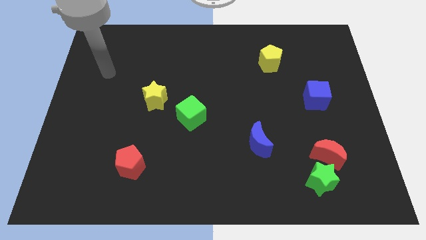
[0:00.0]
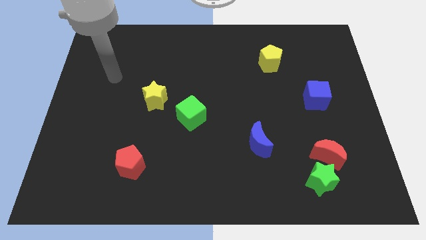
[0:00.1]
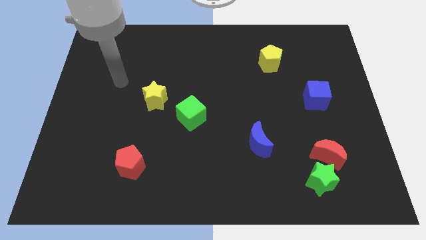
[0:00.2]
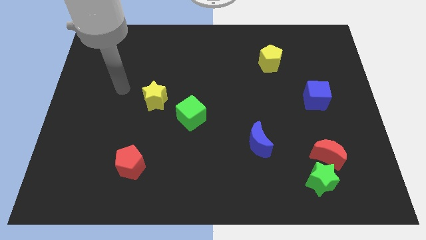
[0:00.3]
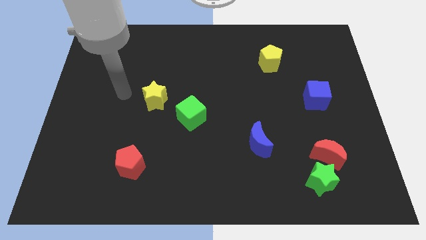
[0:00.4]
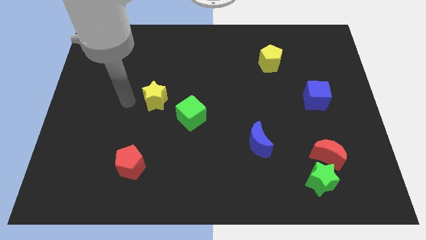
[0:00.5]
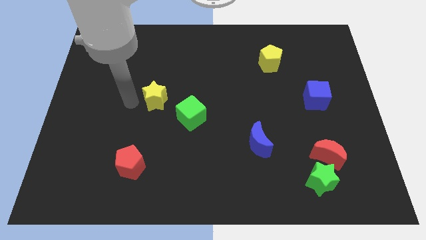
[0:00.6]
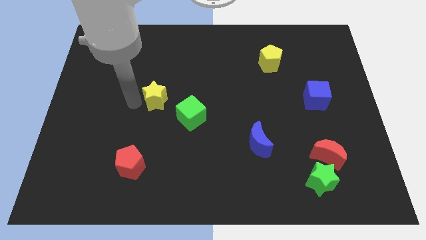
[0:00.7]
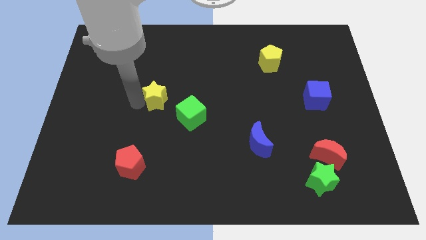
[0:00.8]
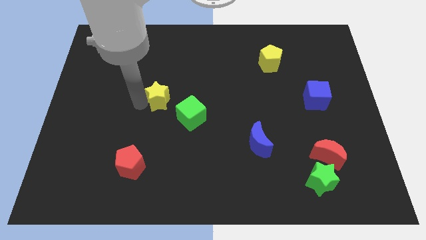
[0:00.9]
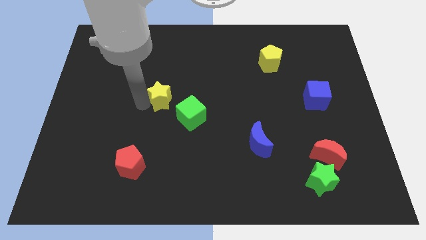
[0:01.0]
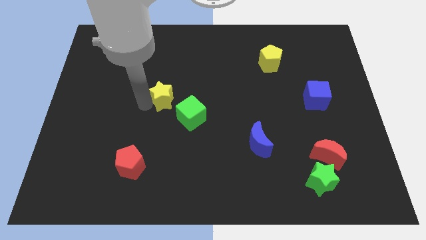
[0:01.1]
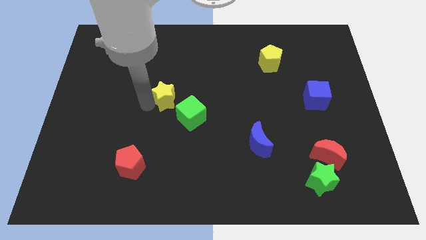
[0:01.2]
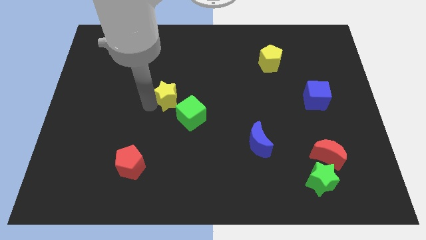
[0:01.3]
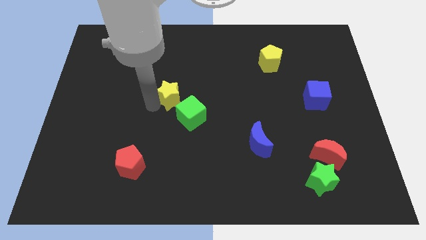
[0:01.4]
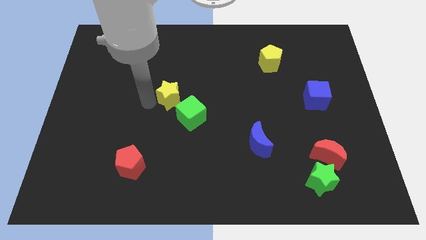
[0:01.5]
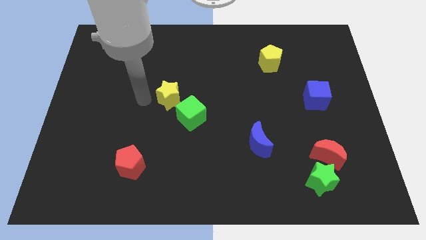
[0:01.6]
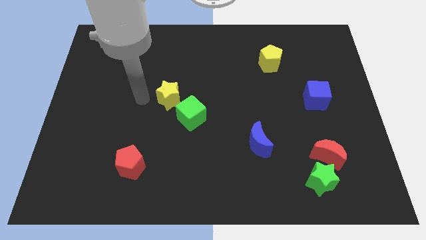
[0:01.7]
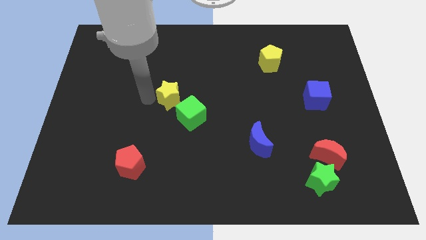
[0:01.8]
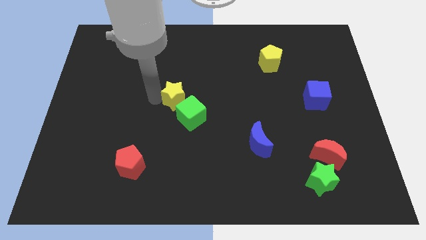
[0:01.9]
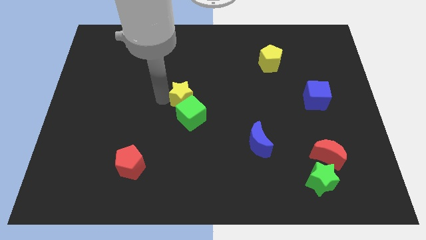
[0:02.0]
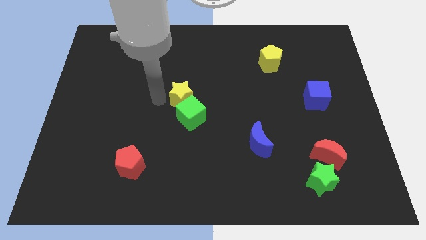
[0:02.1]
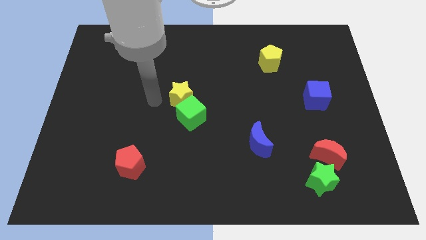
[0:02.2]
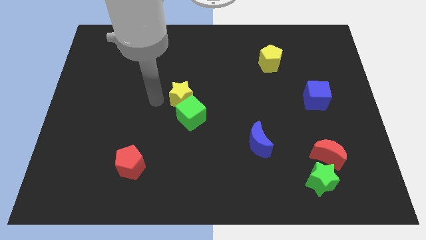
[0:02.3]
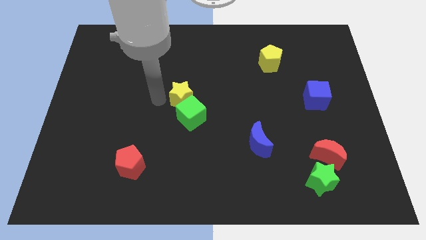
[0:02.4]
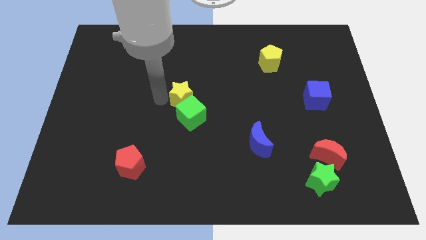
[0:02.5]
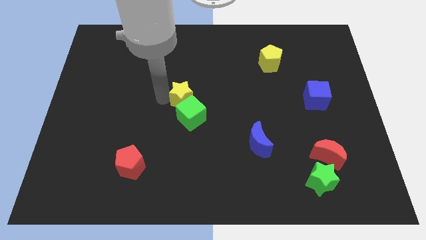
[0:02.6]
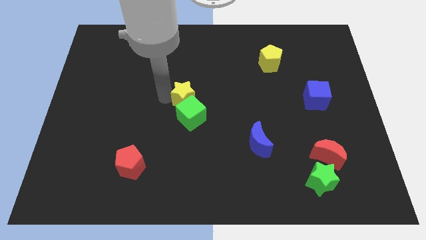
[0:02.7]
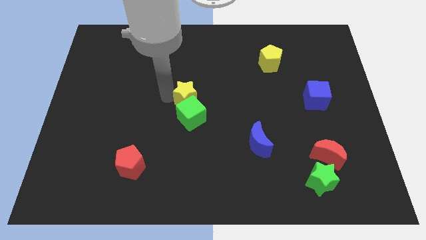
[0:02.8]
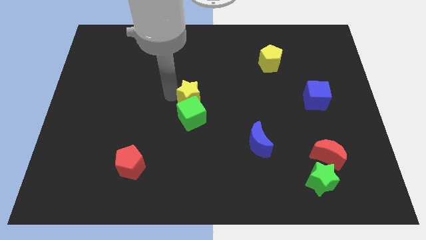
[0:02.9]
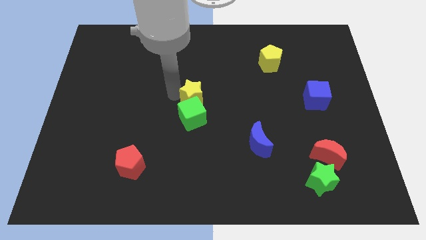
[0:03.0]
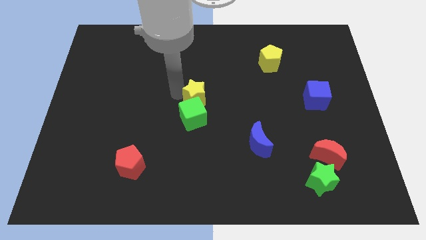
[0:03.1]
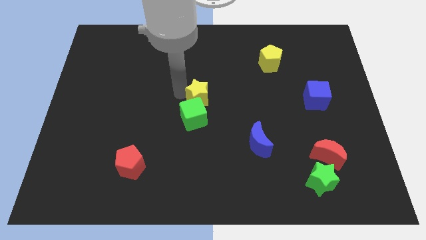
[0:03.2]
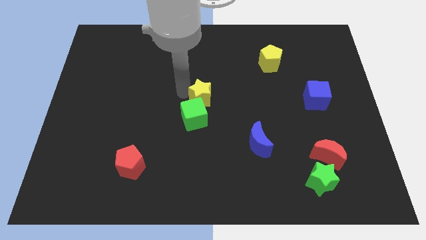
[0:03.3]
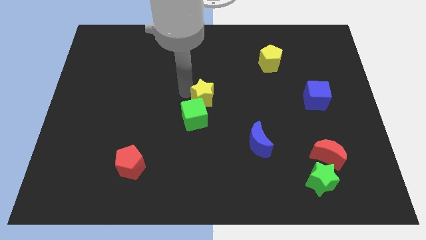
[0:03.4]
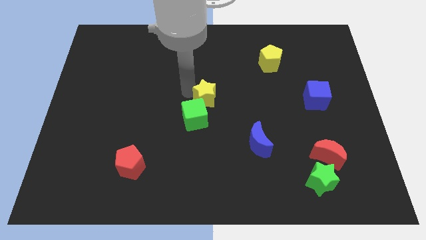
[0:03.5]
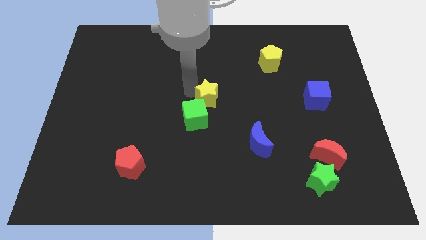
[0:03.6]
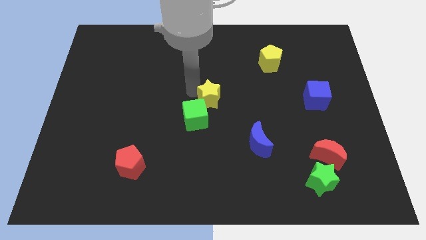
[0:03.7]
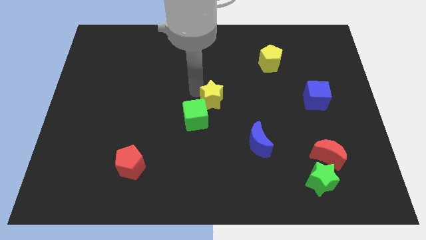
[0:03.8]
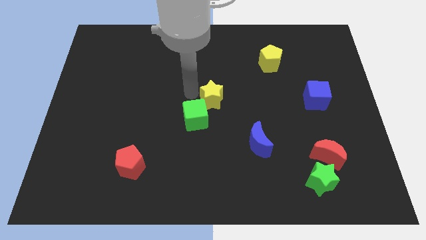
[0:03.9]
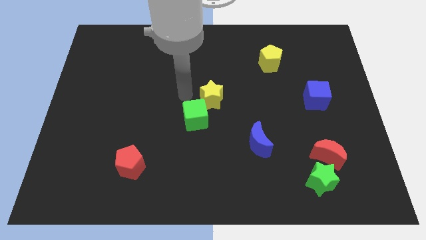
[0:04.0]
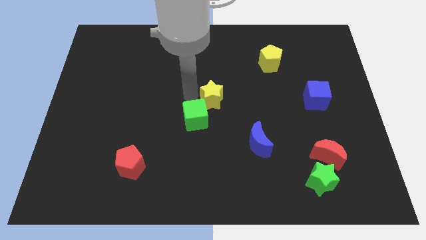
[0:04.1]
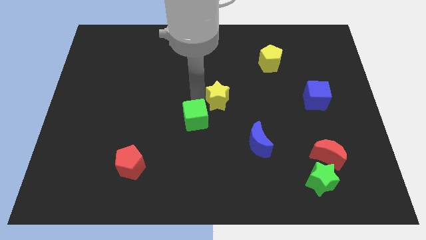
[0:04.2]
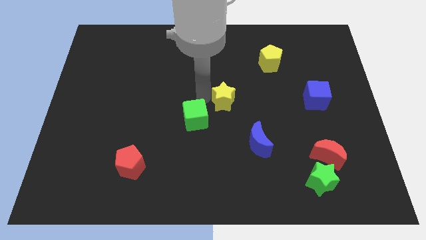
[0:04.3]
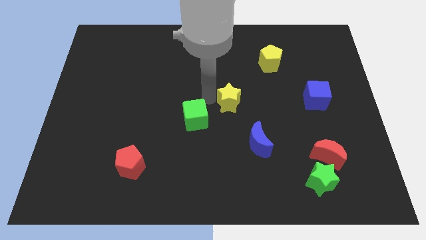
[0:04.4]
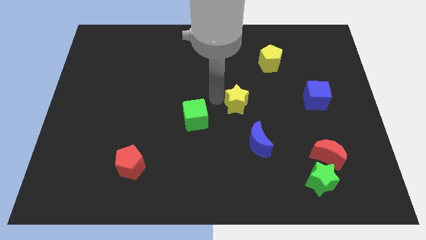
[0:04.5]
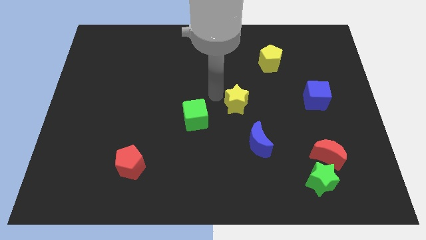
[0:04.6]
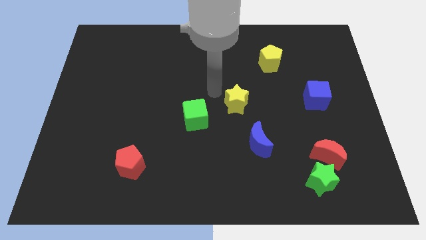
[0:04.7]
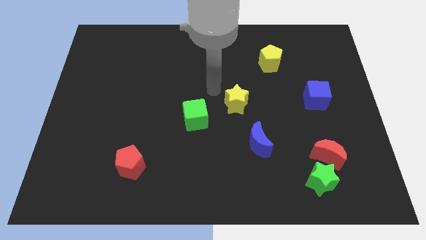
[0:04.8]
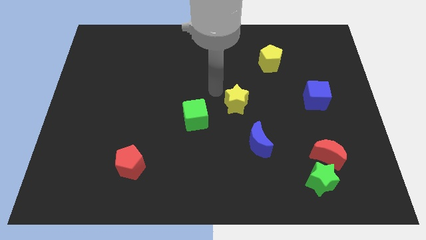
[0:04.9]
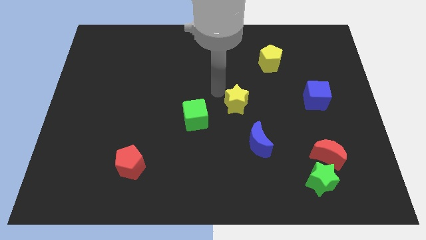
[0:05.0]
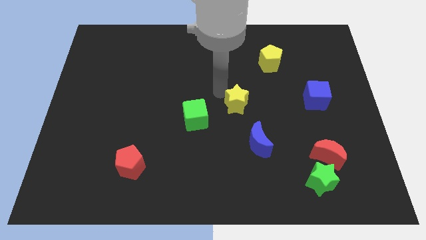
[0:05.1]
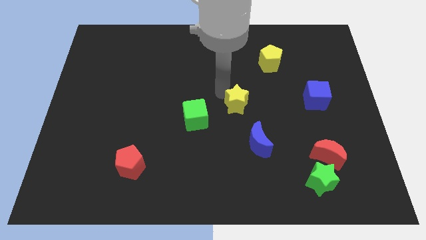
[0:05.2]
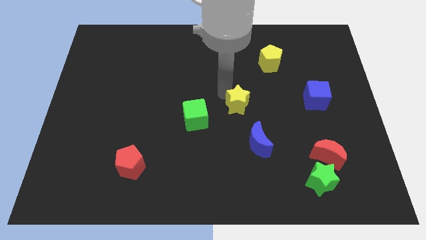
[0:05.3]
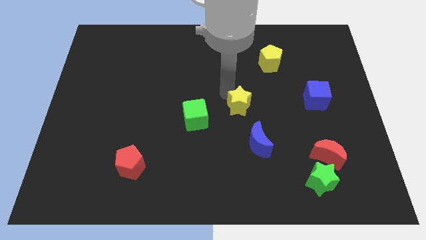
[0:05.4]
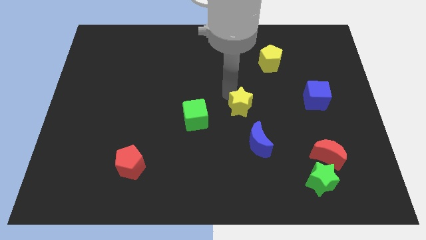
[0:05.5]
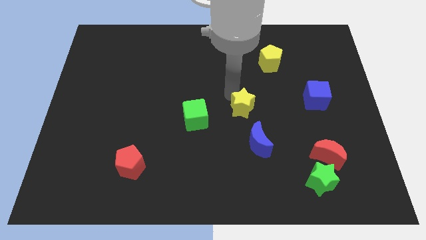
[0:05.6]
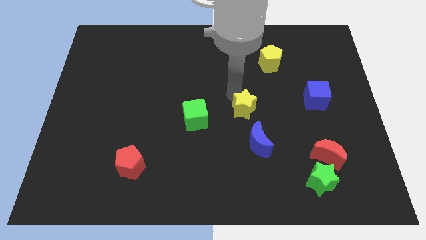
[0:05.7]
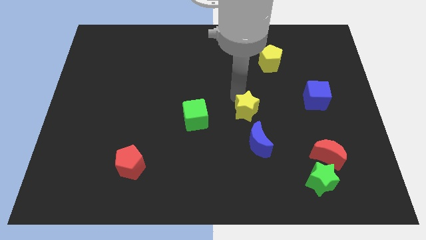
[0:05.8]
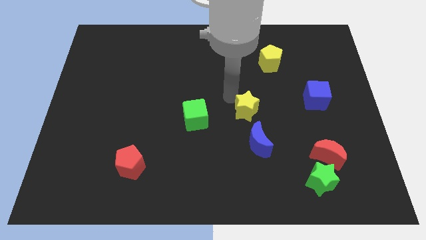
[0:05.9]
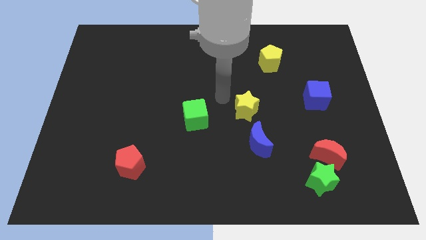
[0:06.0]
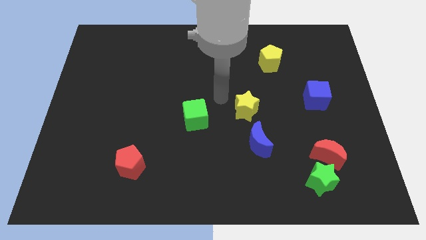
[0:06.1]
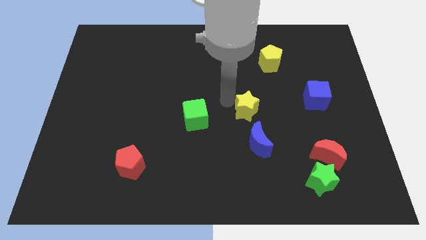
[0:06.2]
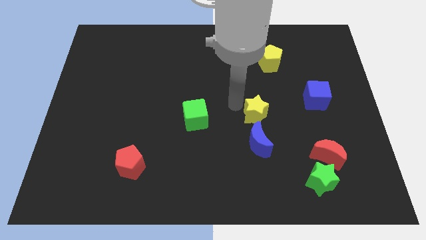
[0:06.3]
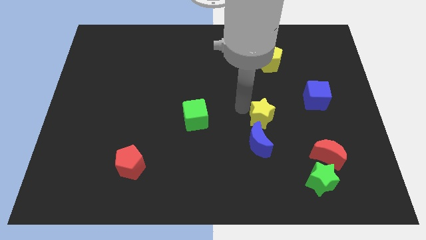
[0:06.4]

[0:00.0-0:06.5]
put the yellow star to the top right of the blue moon

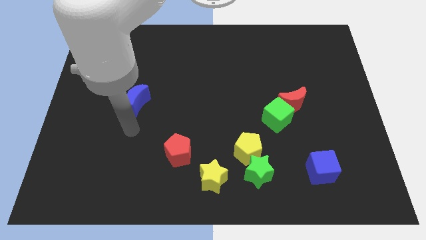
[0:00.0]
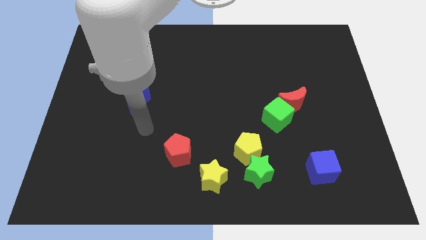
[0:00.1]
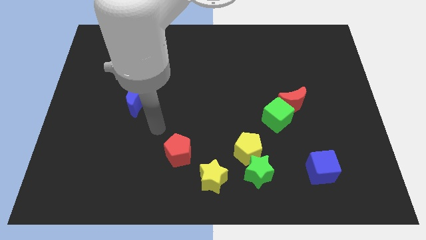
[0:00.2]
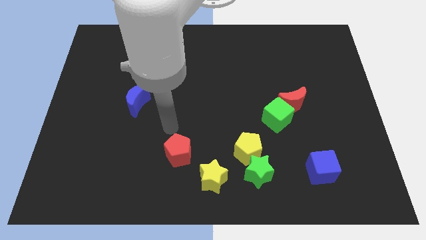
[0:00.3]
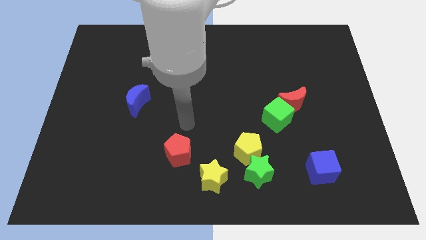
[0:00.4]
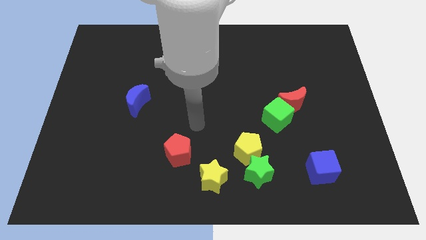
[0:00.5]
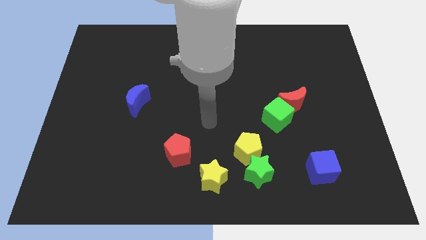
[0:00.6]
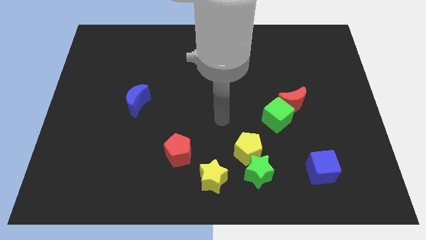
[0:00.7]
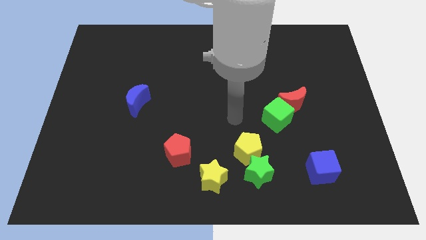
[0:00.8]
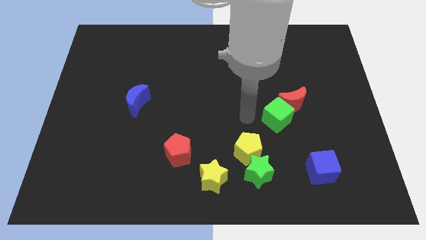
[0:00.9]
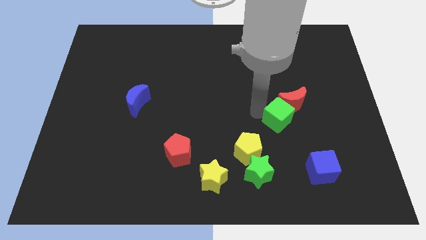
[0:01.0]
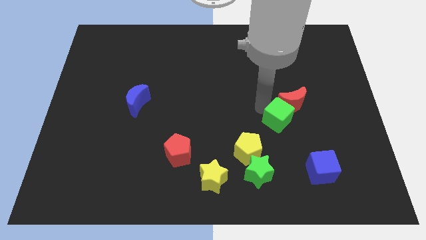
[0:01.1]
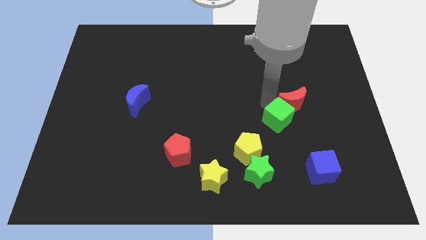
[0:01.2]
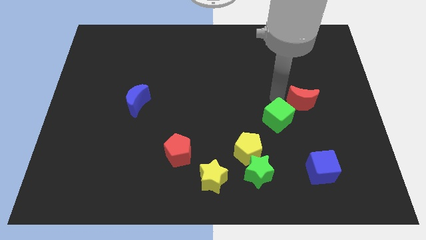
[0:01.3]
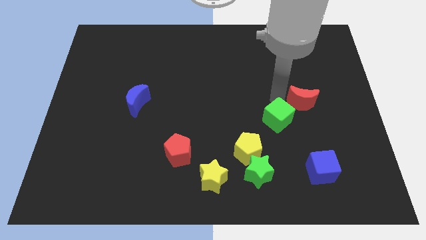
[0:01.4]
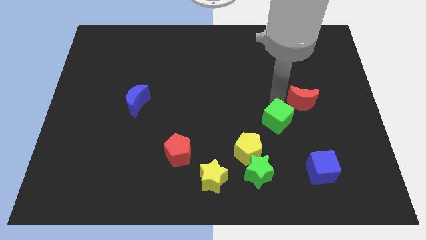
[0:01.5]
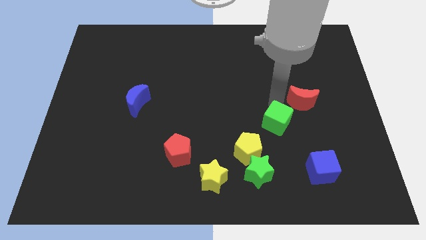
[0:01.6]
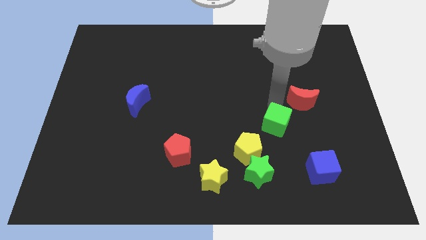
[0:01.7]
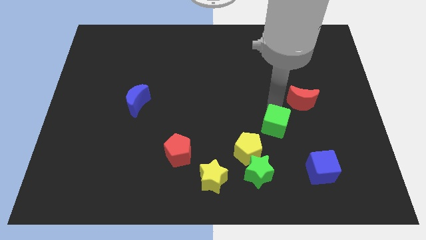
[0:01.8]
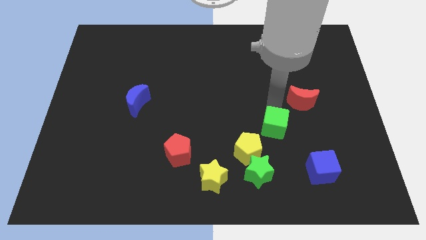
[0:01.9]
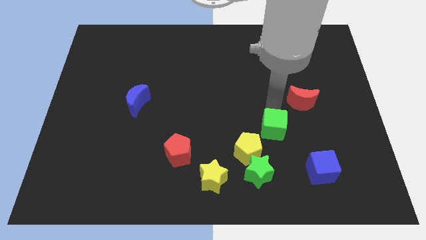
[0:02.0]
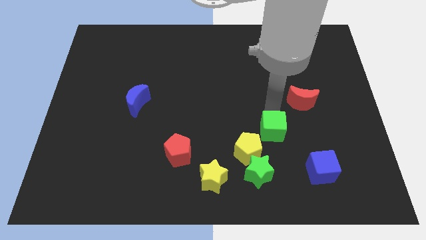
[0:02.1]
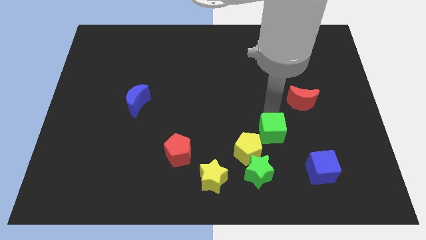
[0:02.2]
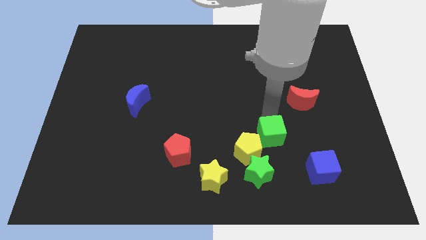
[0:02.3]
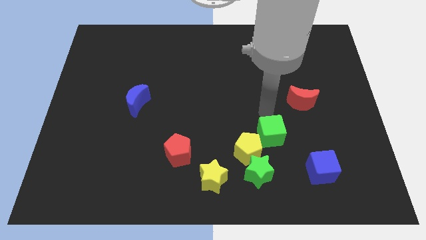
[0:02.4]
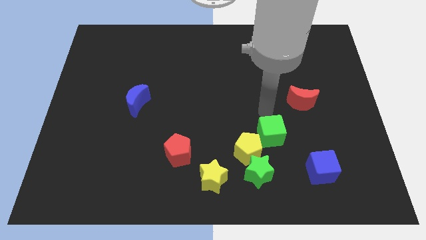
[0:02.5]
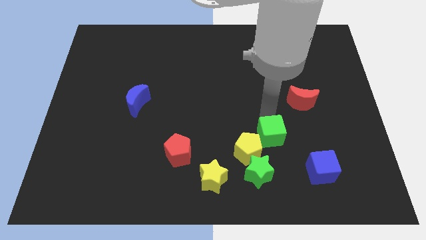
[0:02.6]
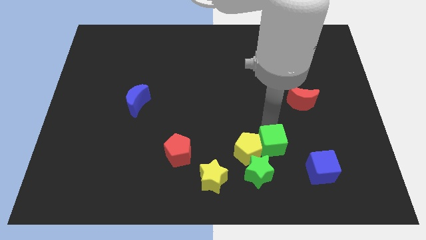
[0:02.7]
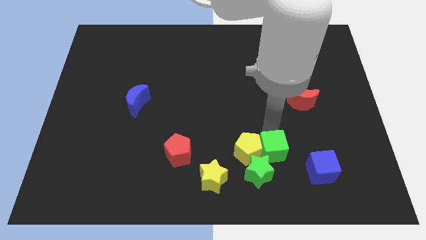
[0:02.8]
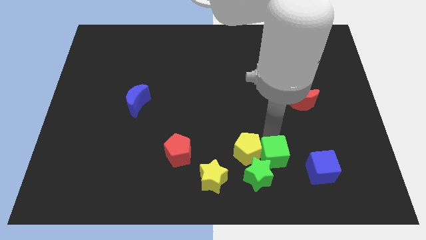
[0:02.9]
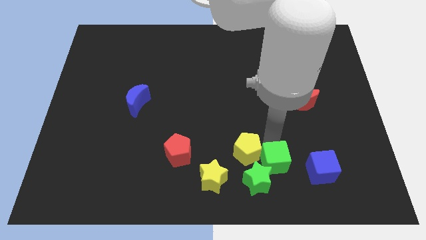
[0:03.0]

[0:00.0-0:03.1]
push the green cube to the right side of the yellow star
